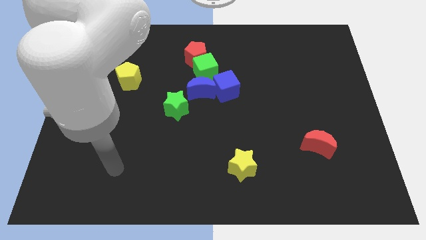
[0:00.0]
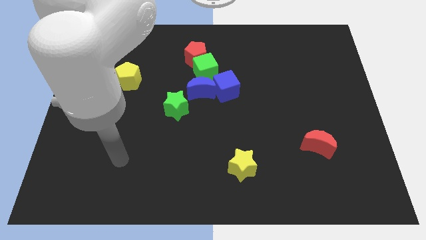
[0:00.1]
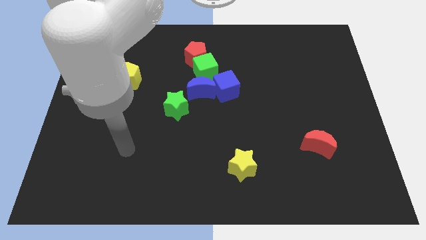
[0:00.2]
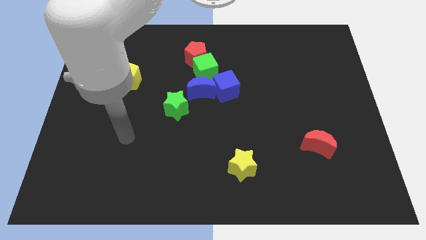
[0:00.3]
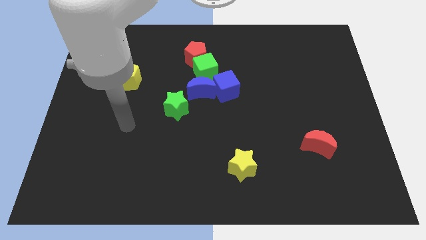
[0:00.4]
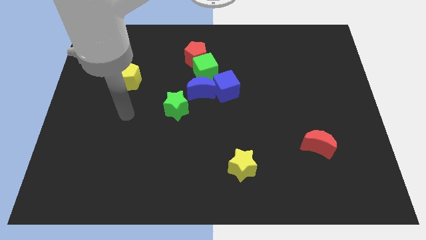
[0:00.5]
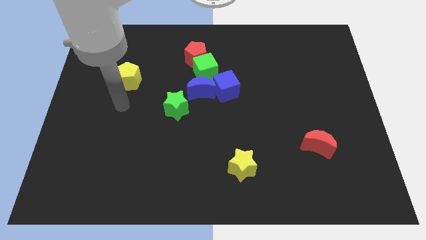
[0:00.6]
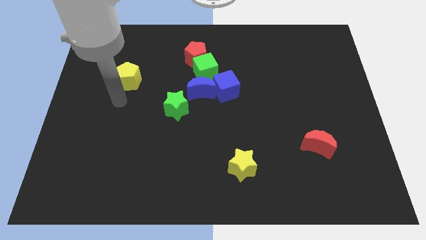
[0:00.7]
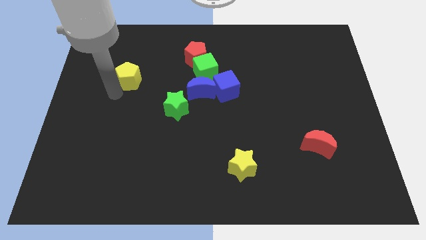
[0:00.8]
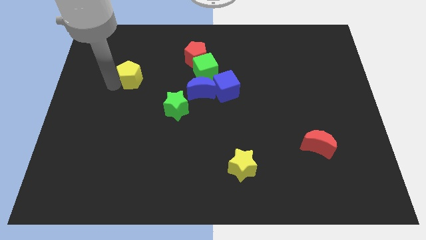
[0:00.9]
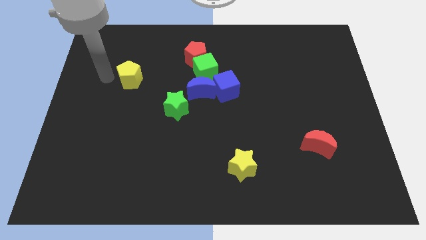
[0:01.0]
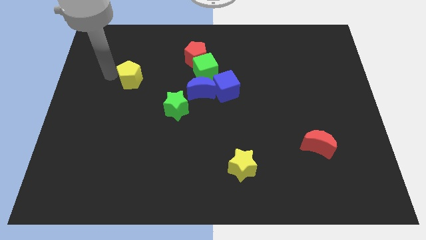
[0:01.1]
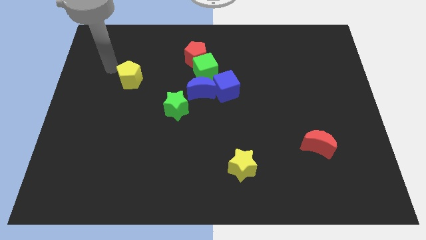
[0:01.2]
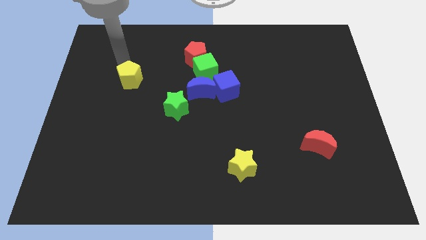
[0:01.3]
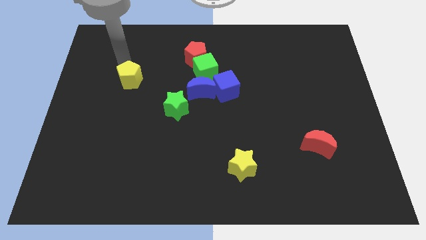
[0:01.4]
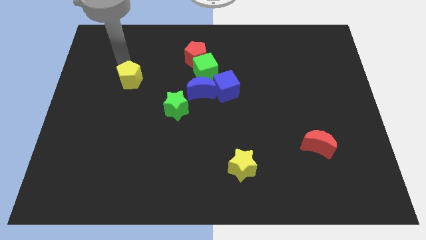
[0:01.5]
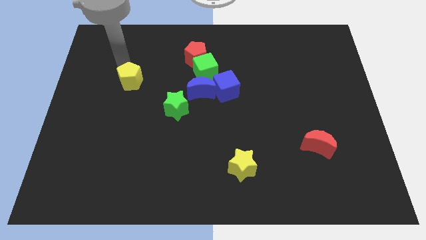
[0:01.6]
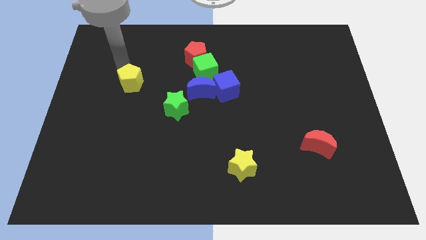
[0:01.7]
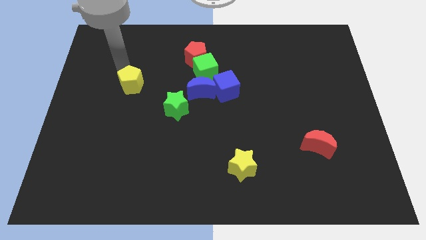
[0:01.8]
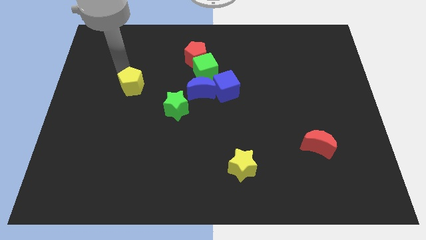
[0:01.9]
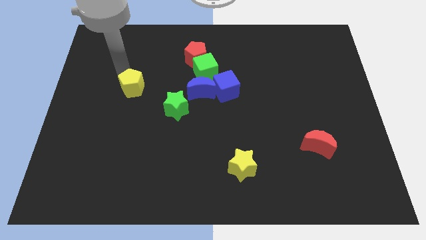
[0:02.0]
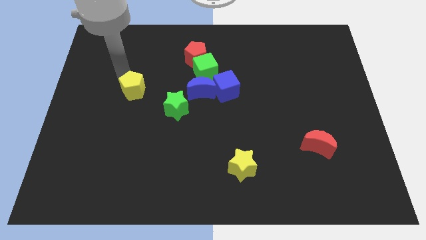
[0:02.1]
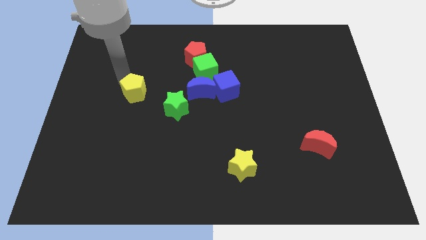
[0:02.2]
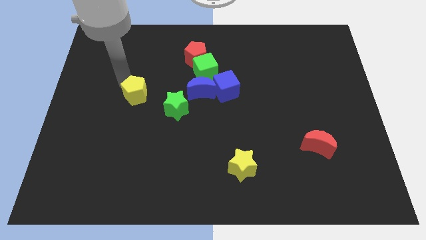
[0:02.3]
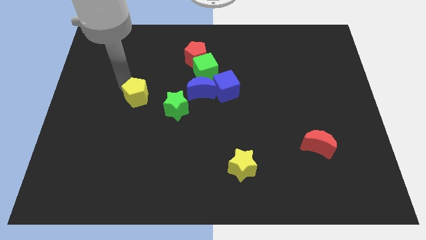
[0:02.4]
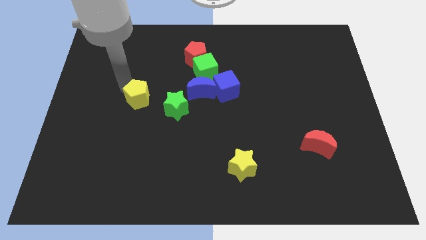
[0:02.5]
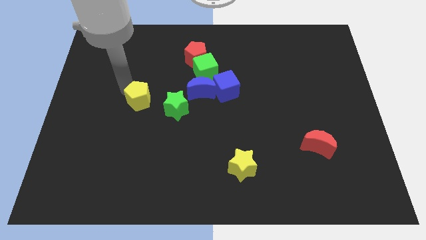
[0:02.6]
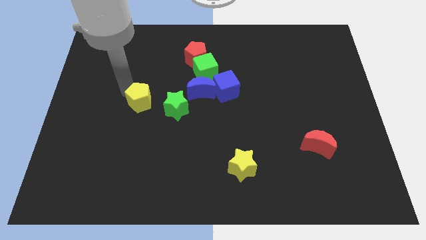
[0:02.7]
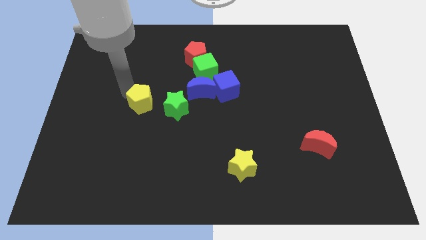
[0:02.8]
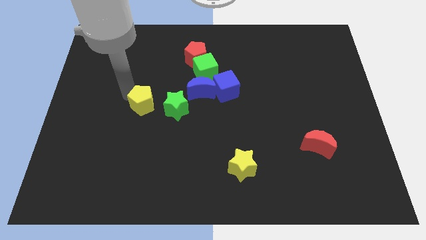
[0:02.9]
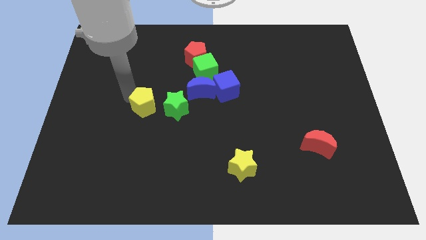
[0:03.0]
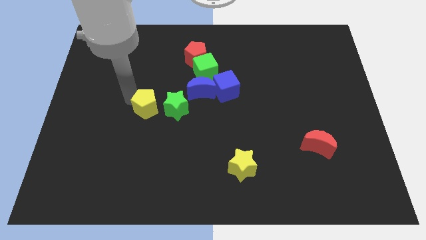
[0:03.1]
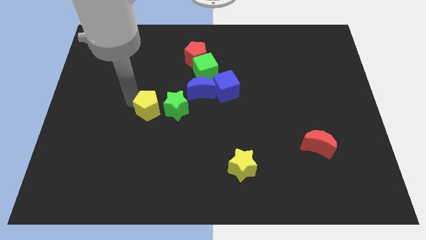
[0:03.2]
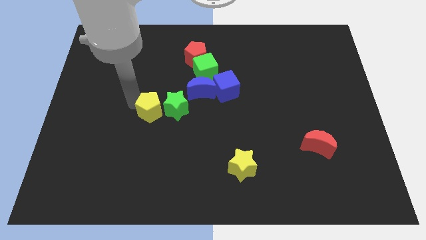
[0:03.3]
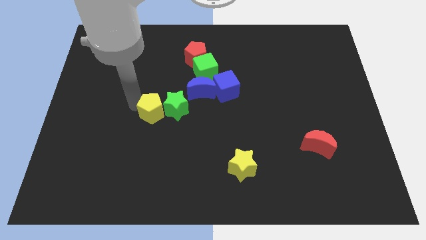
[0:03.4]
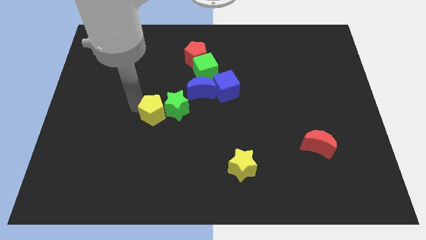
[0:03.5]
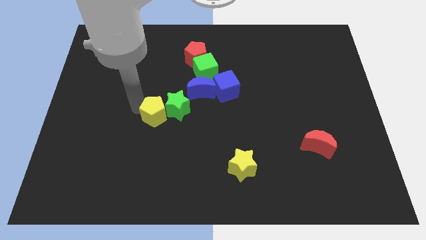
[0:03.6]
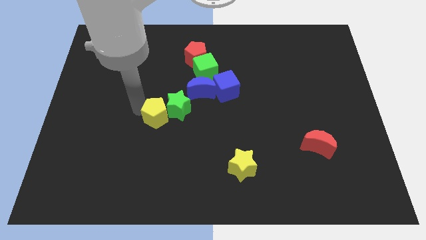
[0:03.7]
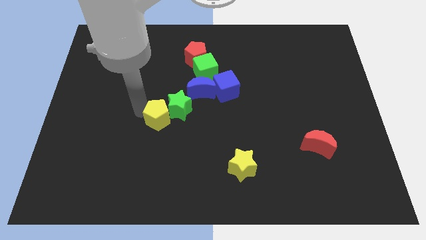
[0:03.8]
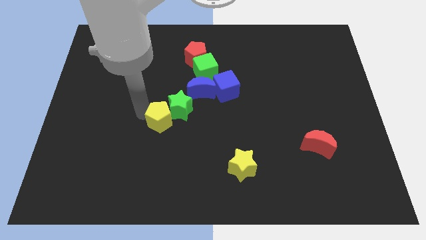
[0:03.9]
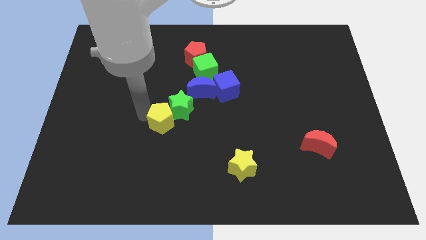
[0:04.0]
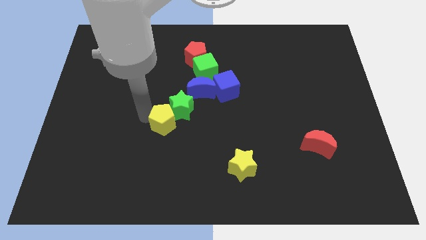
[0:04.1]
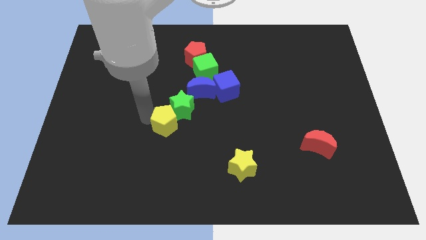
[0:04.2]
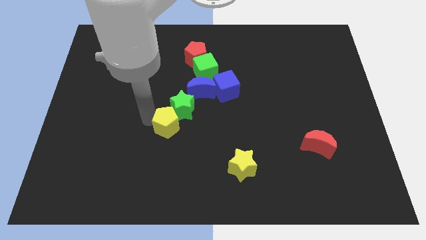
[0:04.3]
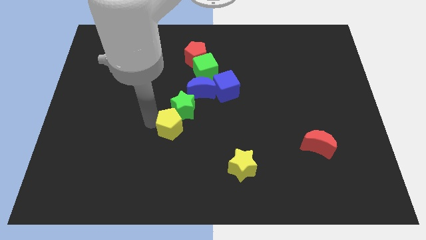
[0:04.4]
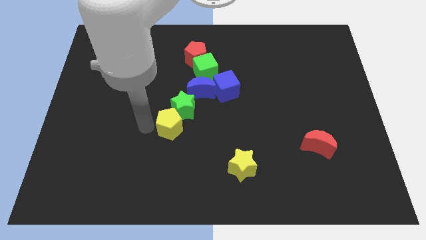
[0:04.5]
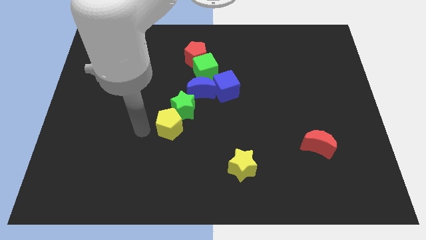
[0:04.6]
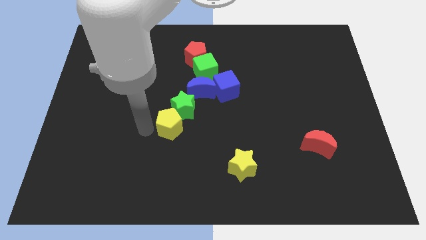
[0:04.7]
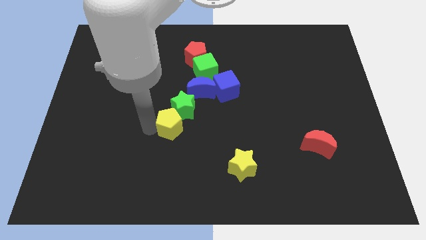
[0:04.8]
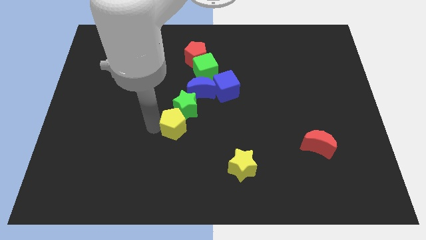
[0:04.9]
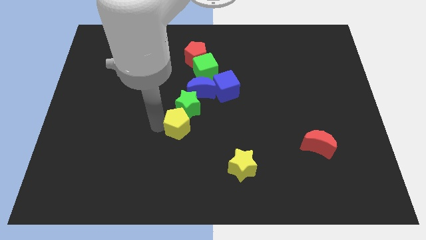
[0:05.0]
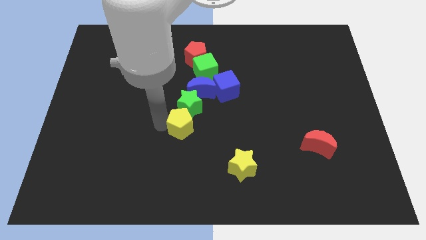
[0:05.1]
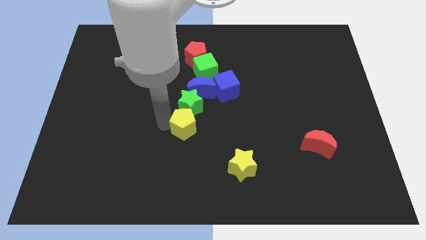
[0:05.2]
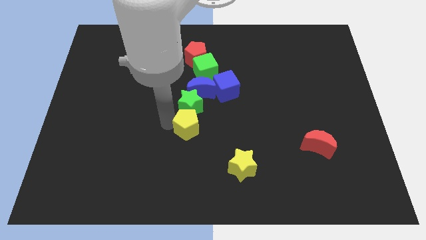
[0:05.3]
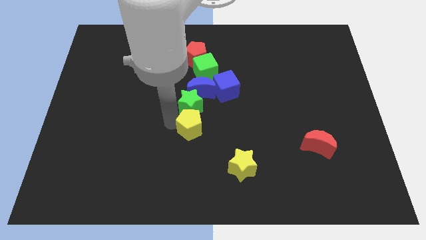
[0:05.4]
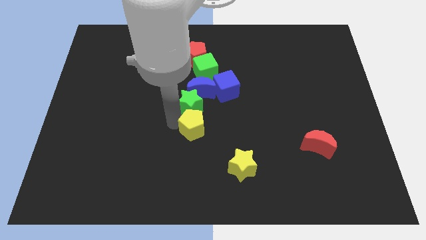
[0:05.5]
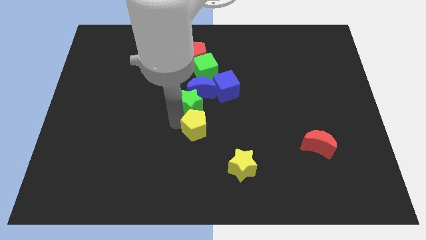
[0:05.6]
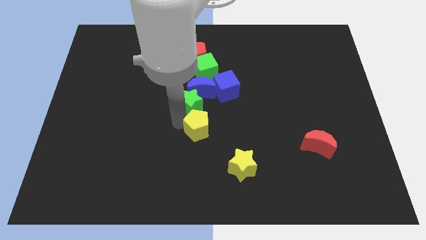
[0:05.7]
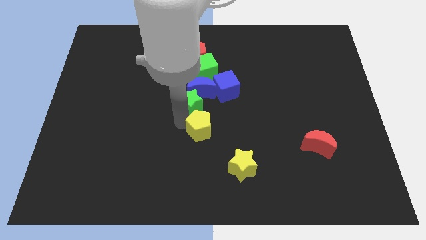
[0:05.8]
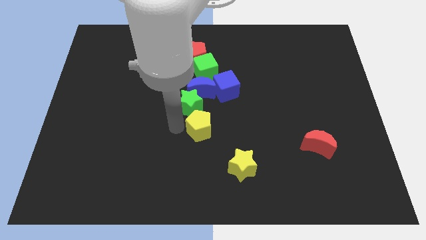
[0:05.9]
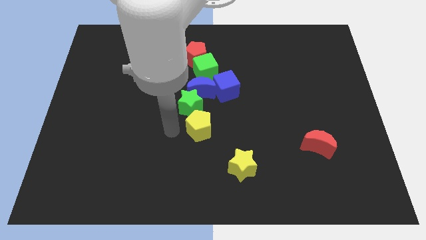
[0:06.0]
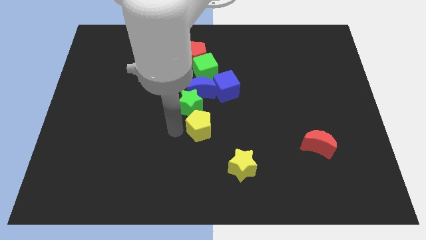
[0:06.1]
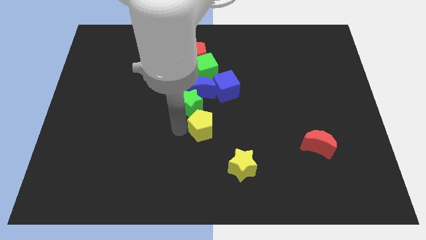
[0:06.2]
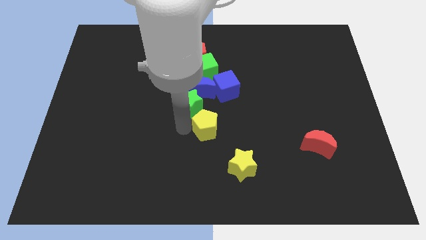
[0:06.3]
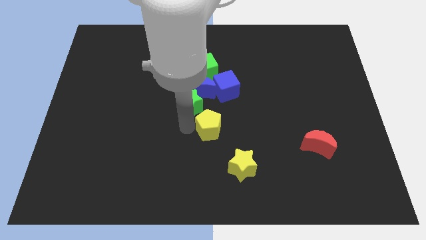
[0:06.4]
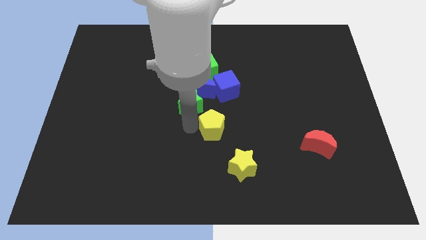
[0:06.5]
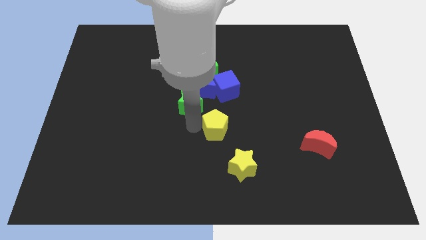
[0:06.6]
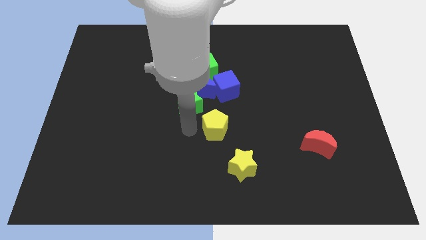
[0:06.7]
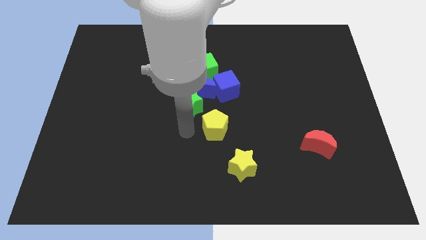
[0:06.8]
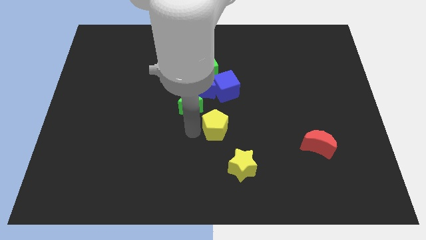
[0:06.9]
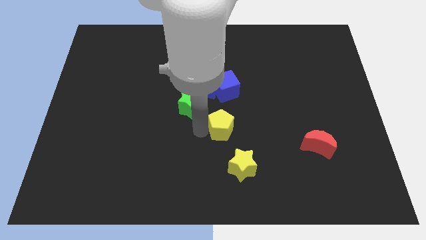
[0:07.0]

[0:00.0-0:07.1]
slide the yellow pentagon above the yellow star
